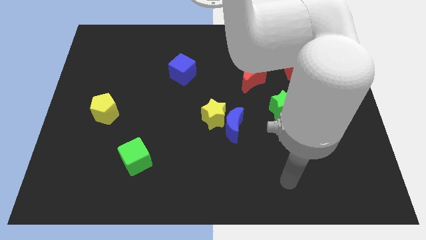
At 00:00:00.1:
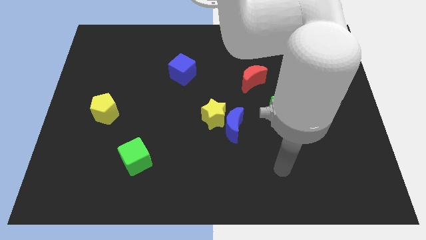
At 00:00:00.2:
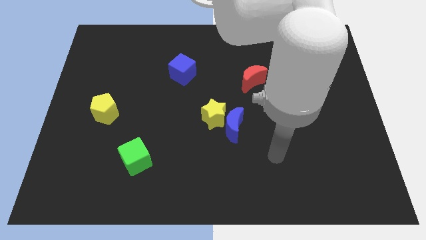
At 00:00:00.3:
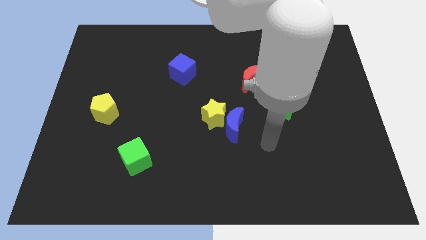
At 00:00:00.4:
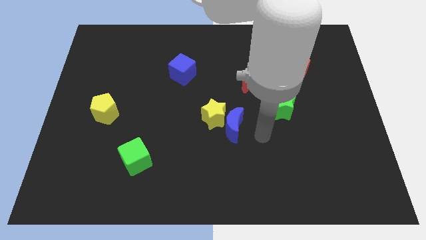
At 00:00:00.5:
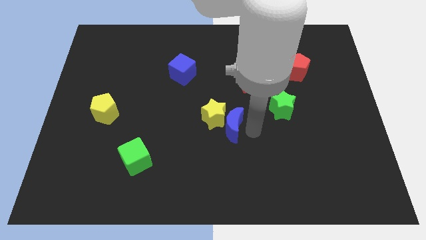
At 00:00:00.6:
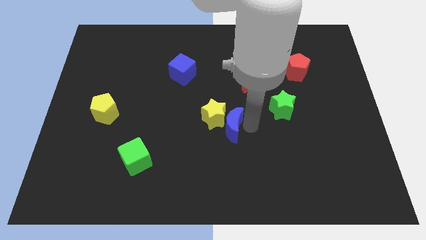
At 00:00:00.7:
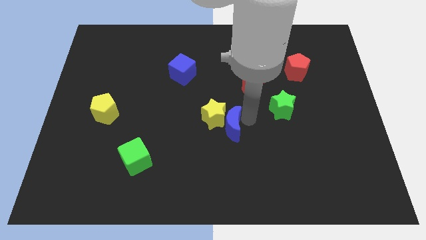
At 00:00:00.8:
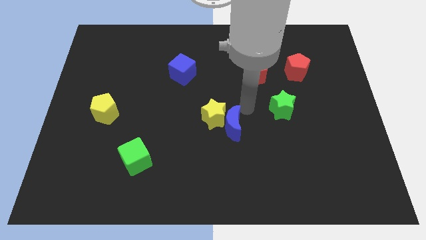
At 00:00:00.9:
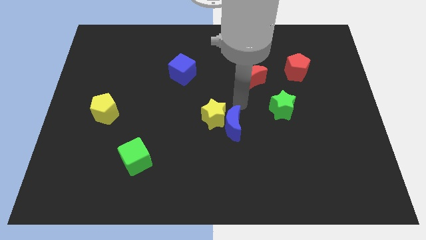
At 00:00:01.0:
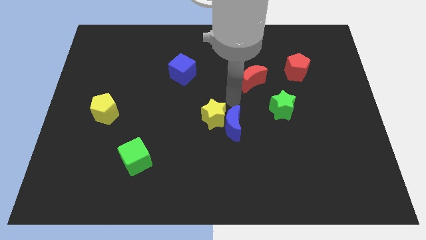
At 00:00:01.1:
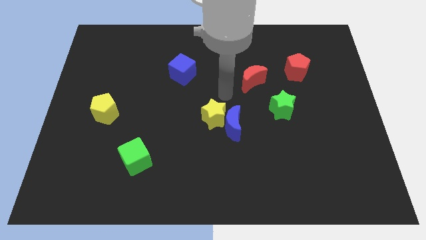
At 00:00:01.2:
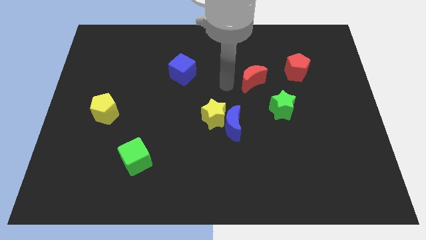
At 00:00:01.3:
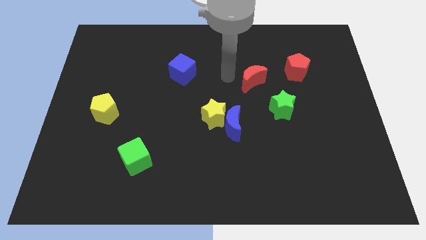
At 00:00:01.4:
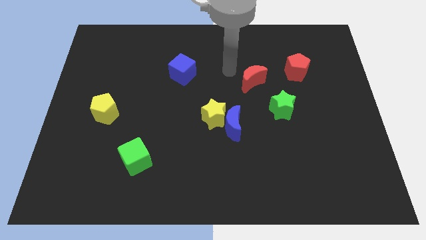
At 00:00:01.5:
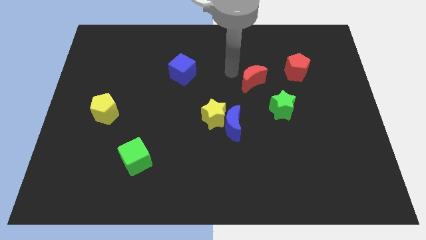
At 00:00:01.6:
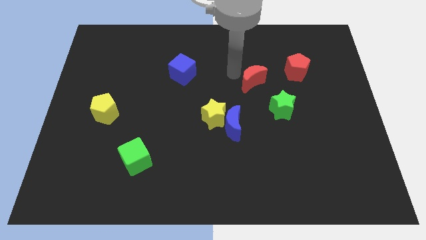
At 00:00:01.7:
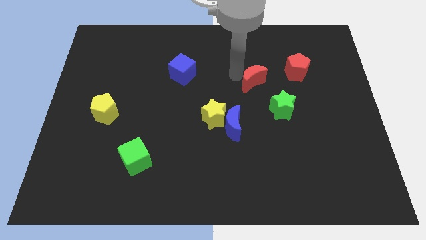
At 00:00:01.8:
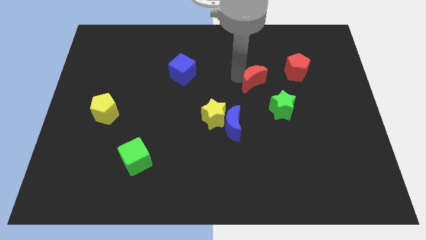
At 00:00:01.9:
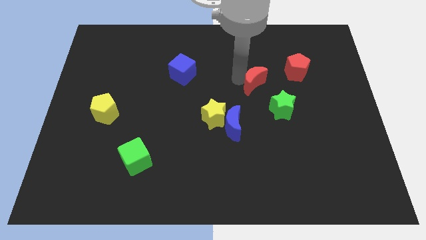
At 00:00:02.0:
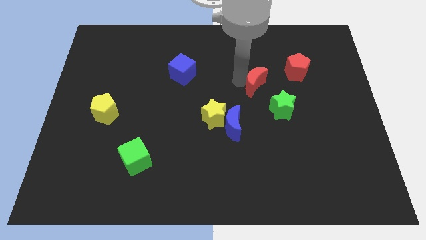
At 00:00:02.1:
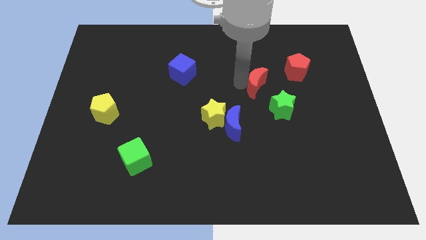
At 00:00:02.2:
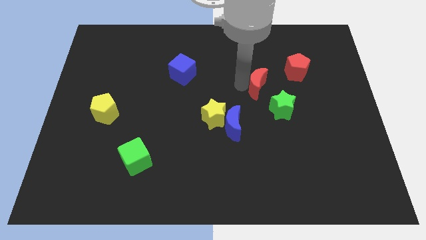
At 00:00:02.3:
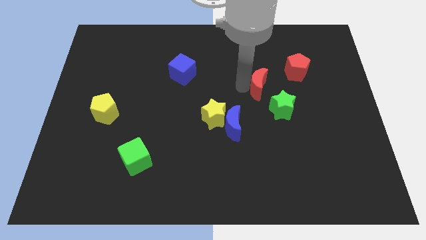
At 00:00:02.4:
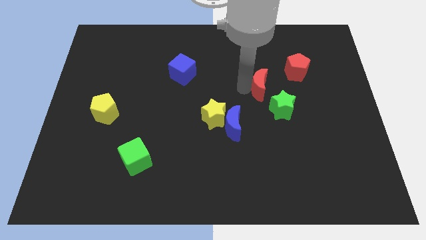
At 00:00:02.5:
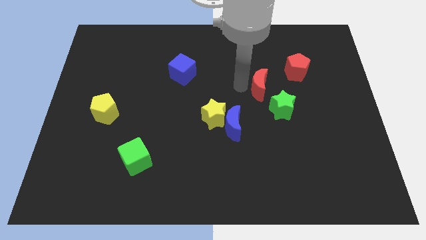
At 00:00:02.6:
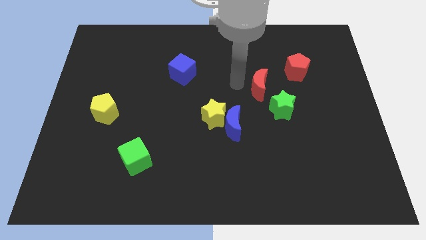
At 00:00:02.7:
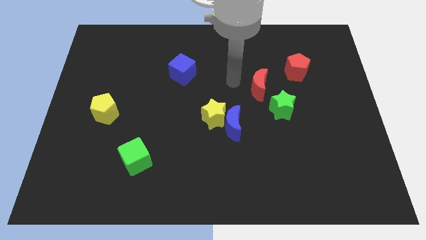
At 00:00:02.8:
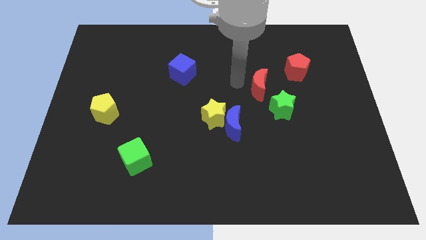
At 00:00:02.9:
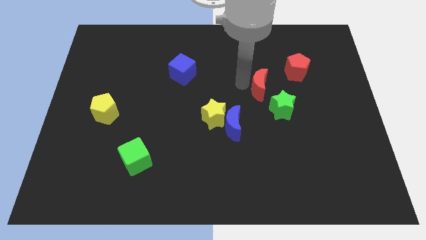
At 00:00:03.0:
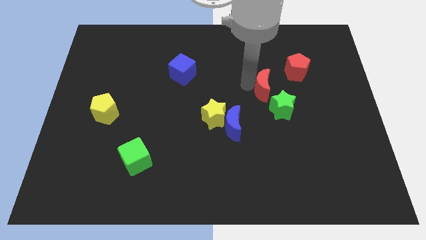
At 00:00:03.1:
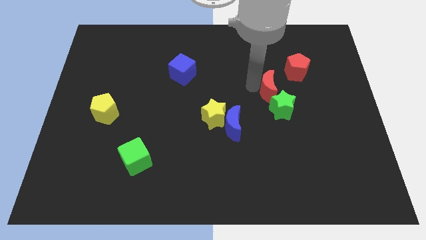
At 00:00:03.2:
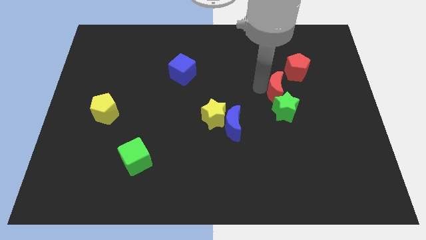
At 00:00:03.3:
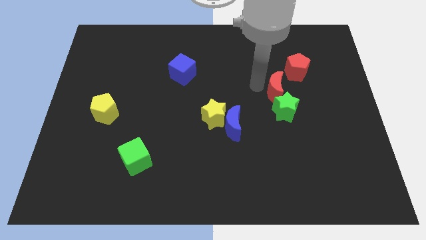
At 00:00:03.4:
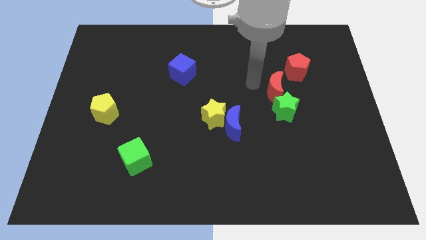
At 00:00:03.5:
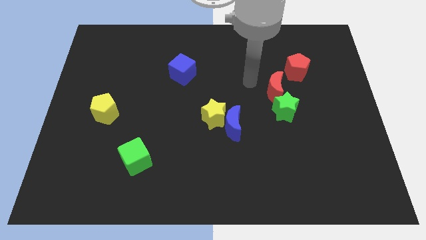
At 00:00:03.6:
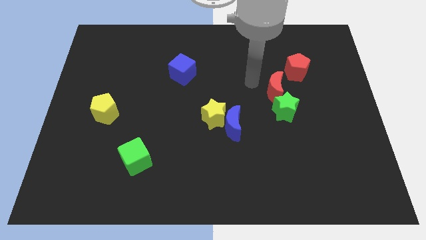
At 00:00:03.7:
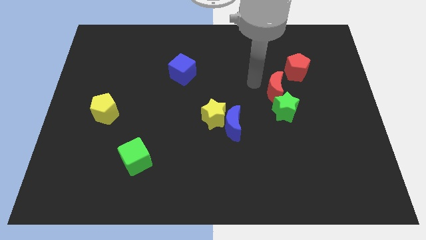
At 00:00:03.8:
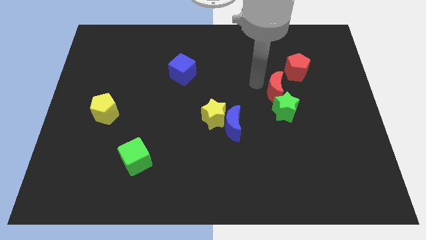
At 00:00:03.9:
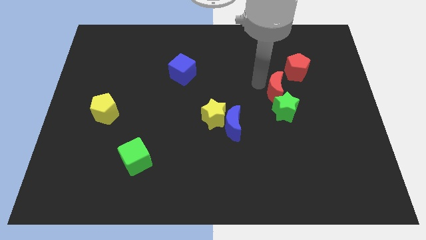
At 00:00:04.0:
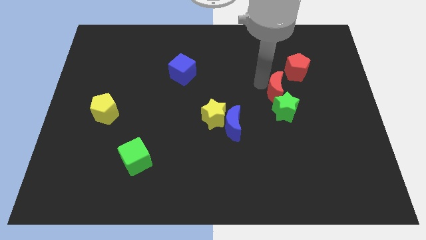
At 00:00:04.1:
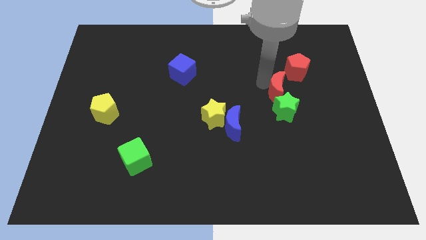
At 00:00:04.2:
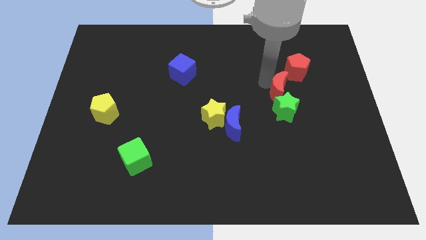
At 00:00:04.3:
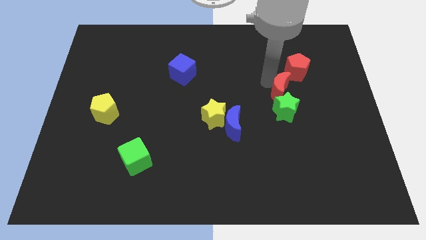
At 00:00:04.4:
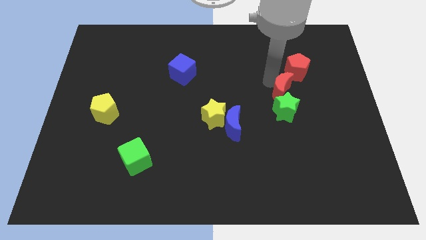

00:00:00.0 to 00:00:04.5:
slightly push the red moon down and then to the right

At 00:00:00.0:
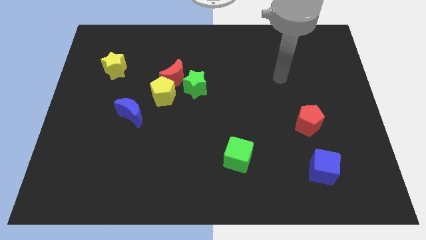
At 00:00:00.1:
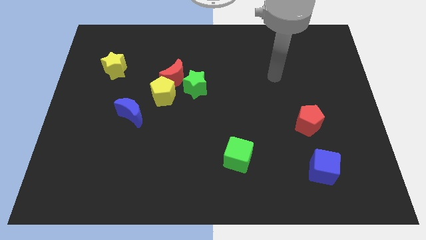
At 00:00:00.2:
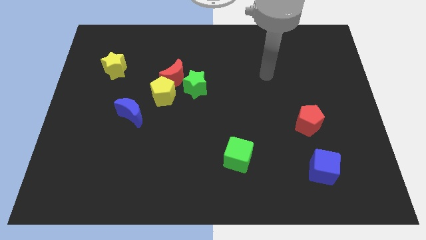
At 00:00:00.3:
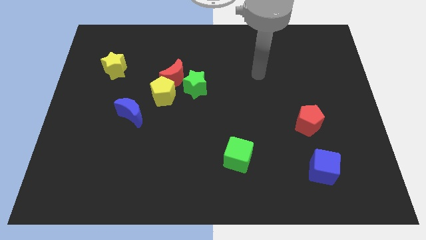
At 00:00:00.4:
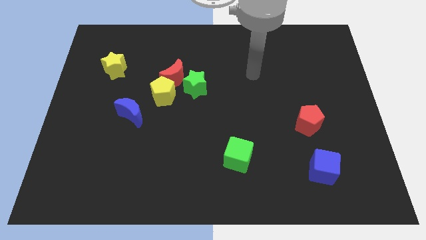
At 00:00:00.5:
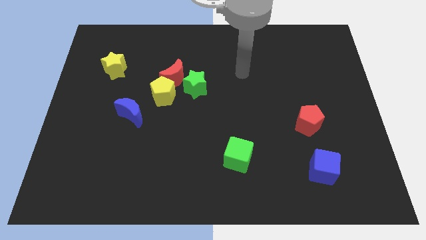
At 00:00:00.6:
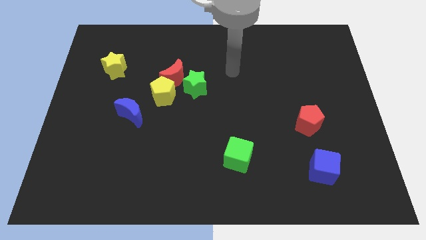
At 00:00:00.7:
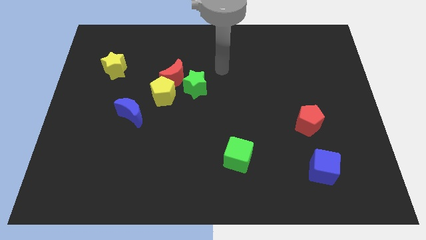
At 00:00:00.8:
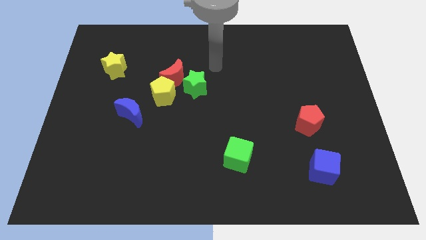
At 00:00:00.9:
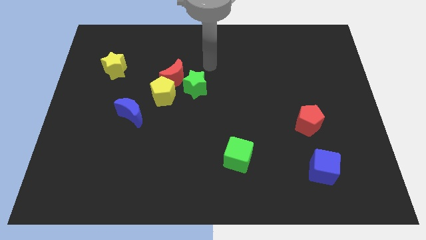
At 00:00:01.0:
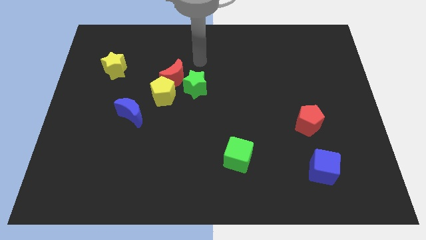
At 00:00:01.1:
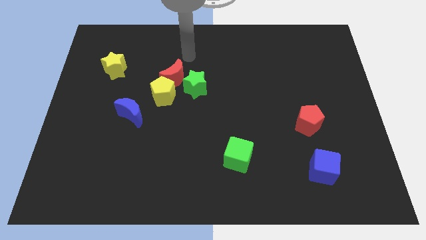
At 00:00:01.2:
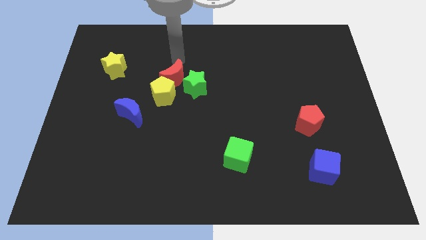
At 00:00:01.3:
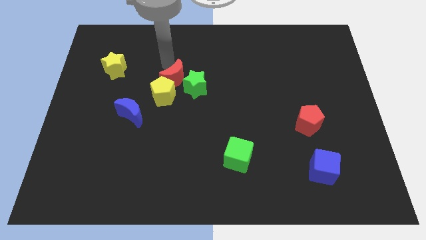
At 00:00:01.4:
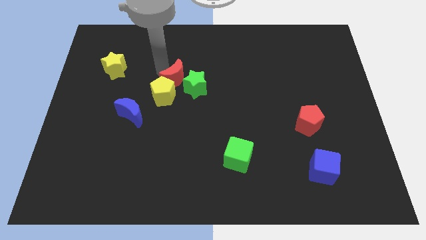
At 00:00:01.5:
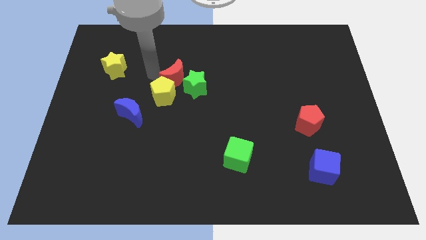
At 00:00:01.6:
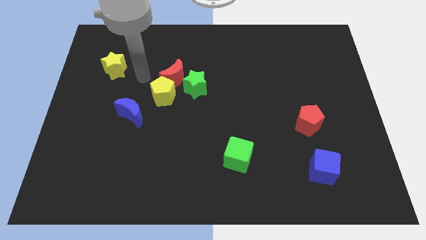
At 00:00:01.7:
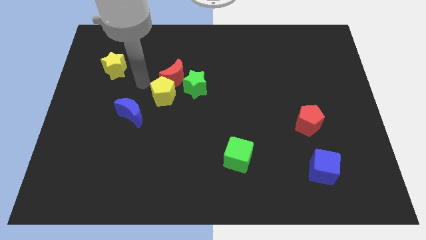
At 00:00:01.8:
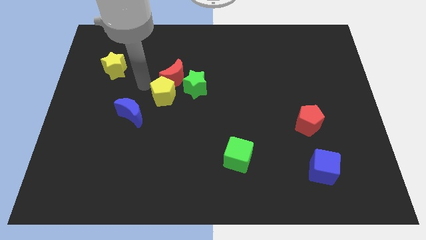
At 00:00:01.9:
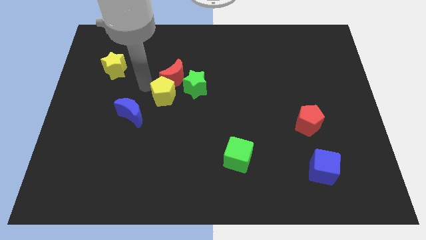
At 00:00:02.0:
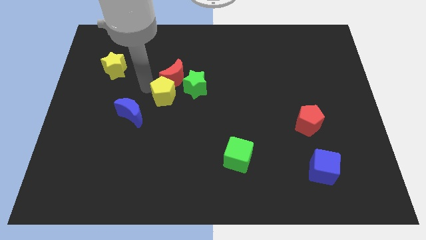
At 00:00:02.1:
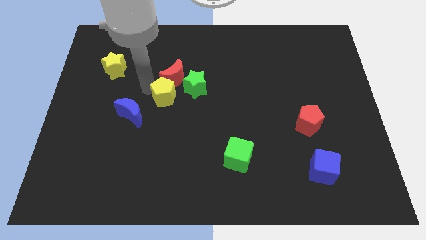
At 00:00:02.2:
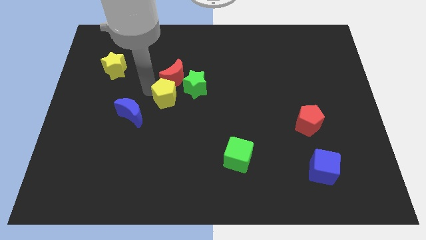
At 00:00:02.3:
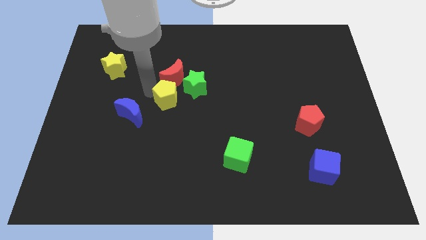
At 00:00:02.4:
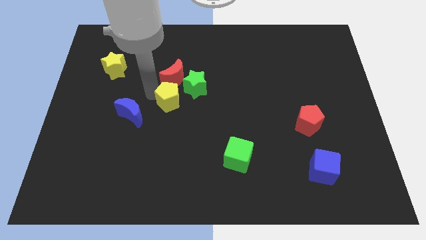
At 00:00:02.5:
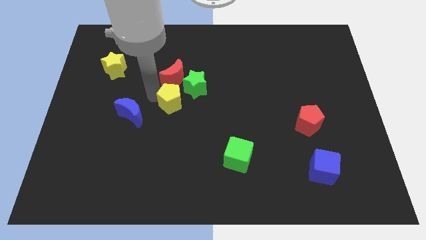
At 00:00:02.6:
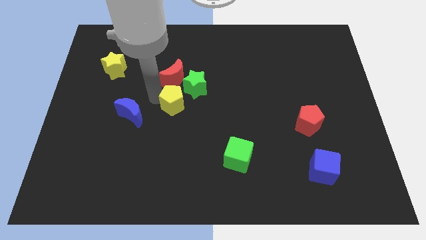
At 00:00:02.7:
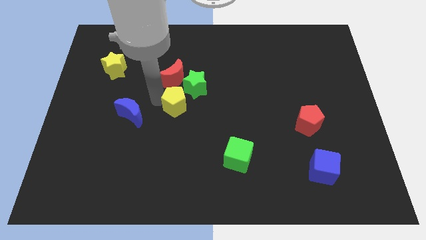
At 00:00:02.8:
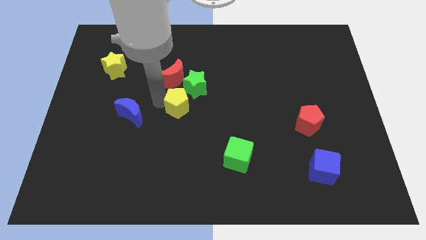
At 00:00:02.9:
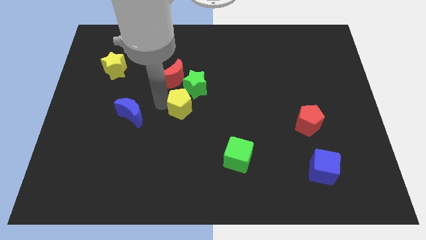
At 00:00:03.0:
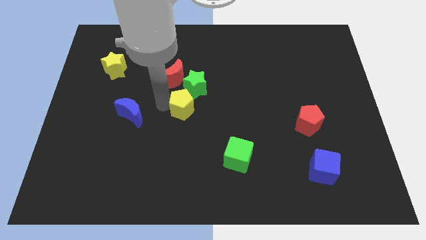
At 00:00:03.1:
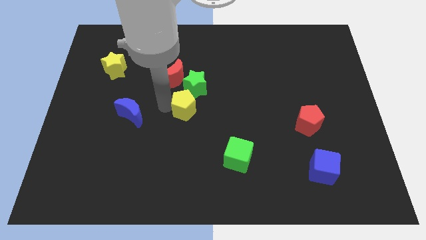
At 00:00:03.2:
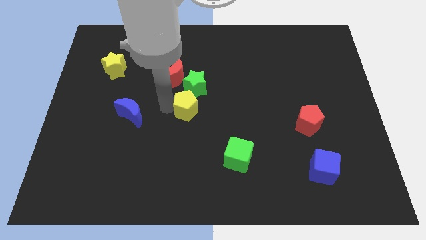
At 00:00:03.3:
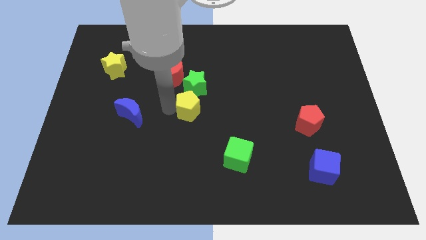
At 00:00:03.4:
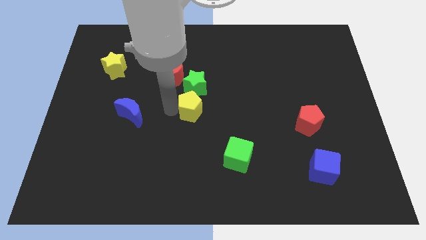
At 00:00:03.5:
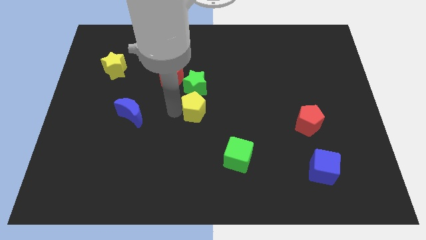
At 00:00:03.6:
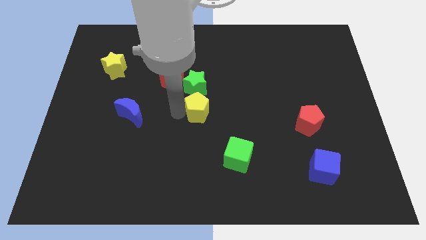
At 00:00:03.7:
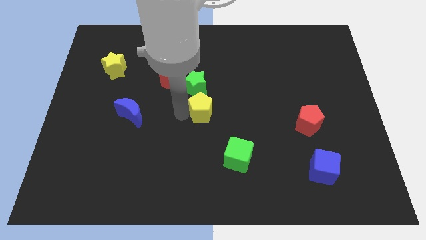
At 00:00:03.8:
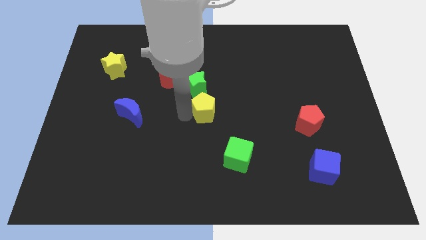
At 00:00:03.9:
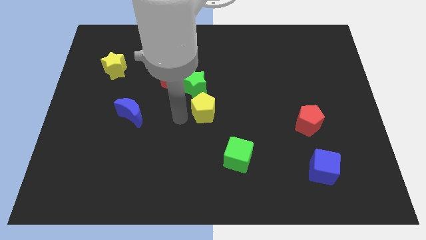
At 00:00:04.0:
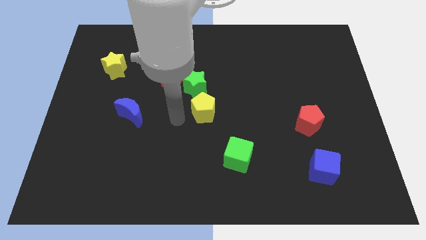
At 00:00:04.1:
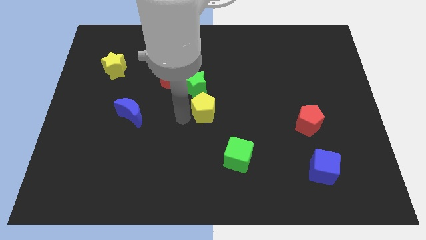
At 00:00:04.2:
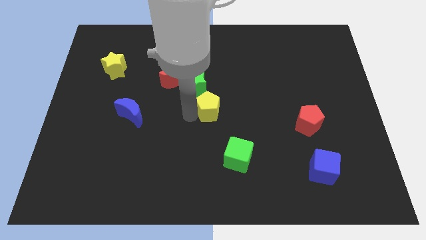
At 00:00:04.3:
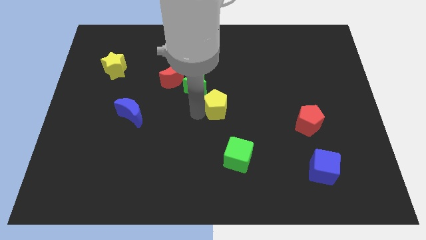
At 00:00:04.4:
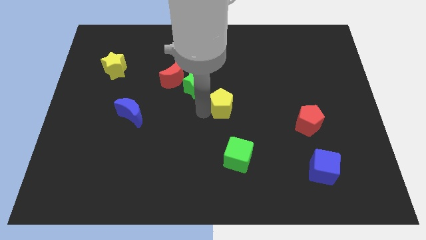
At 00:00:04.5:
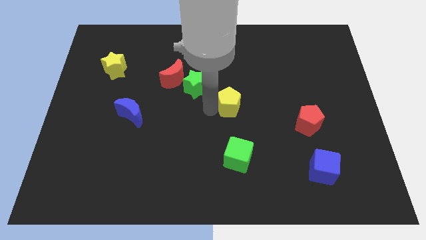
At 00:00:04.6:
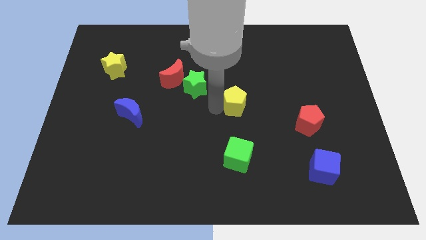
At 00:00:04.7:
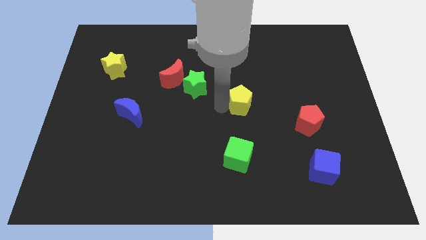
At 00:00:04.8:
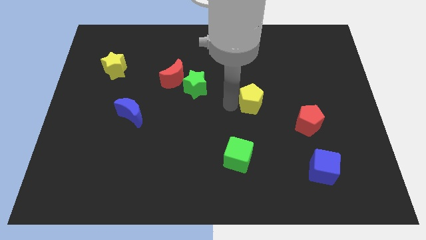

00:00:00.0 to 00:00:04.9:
move the yellow pentagon right
